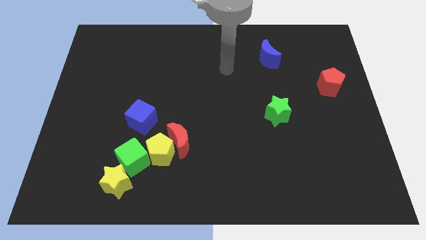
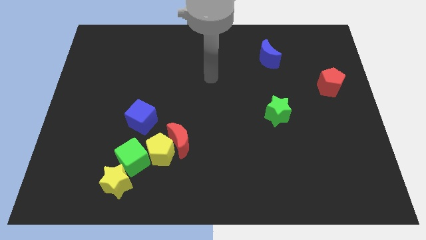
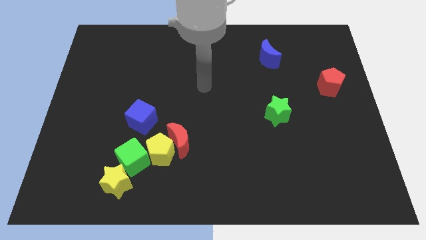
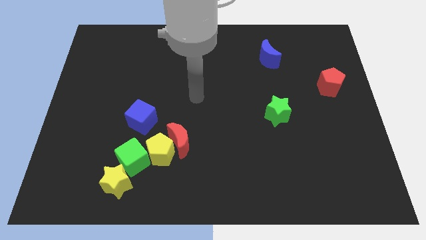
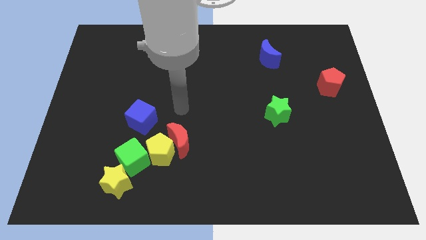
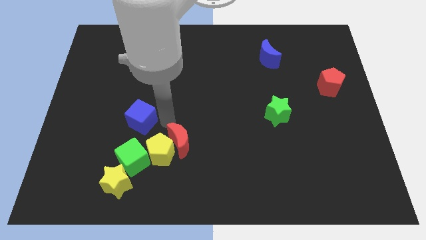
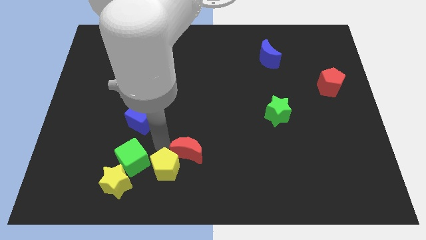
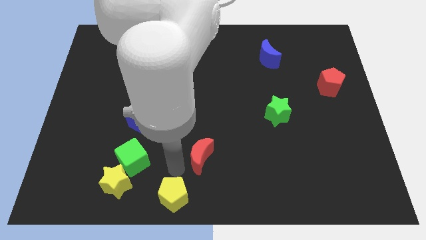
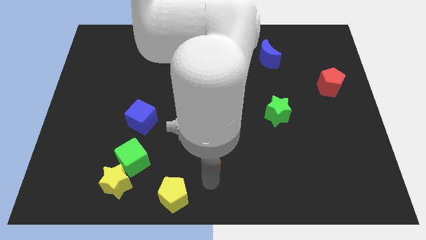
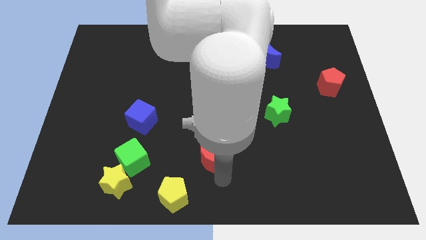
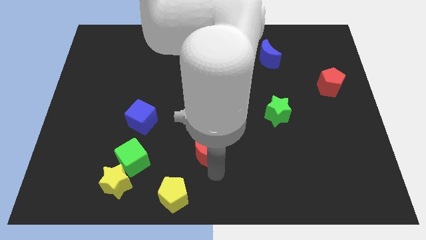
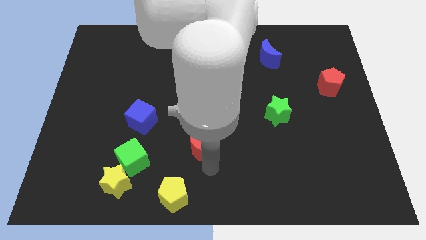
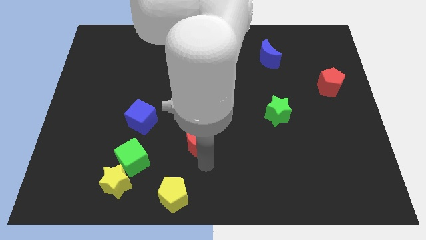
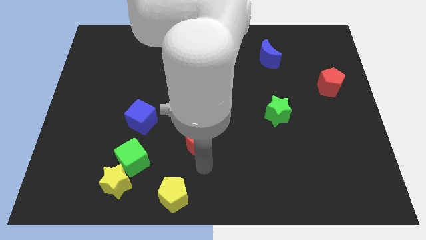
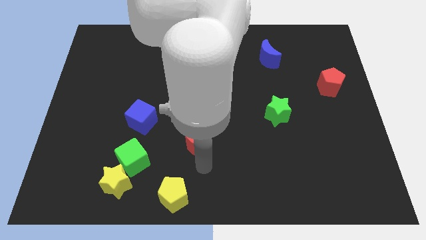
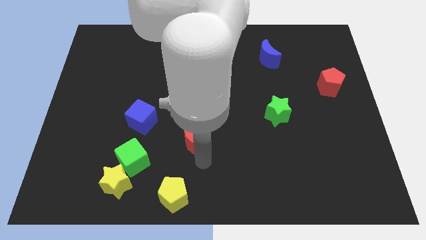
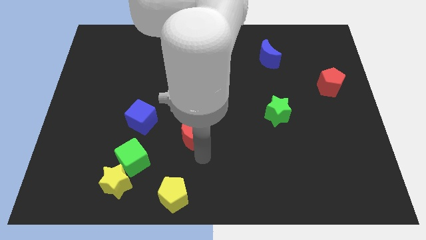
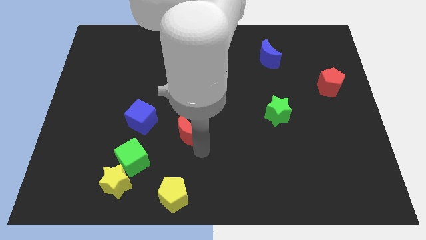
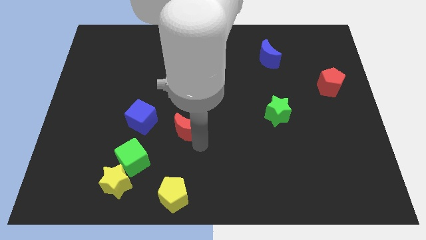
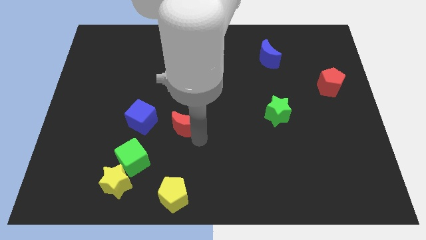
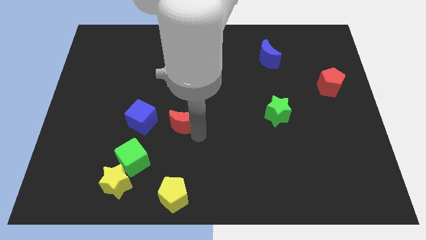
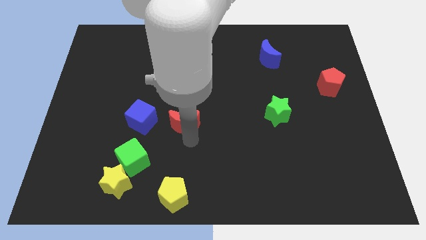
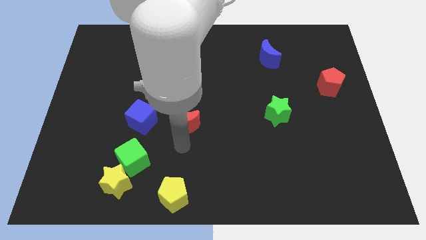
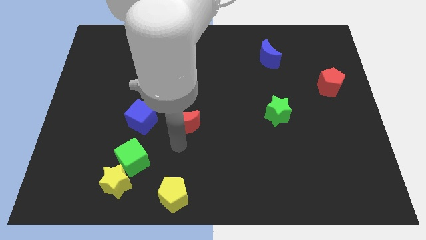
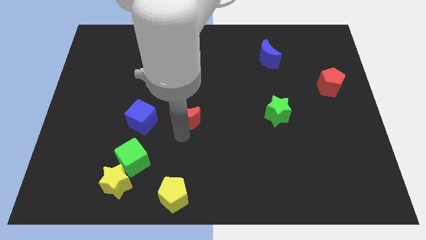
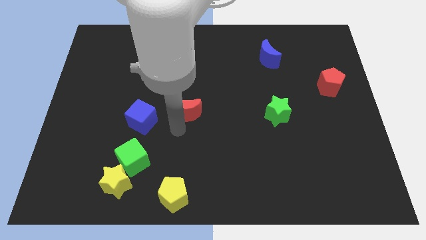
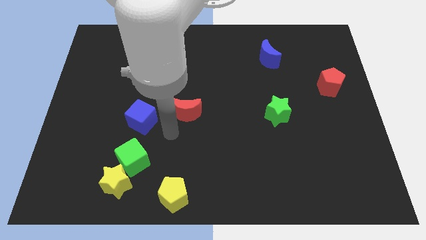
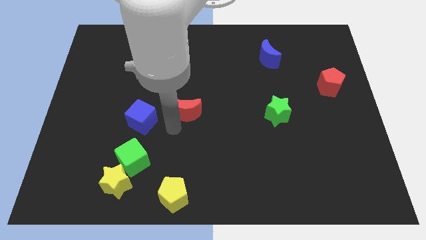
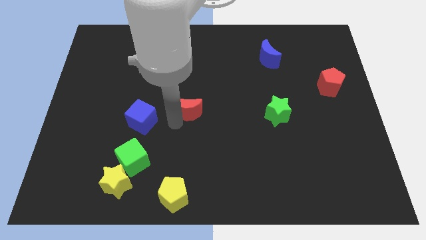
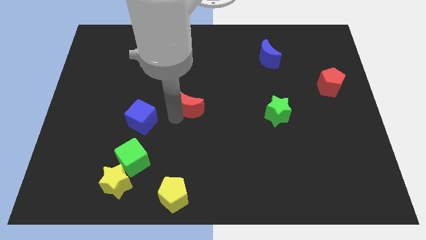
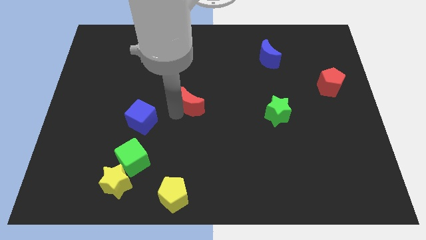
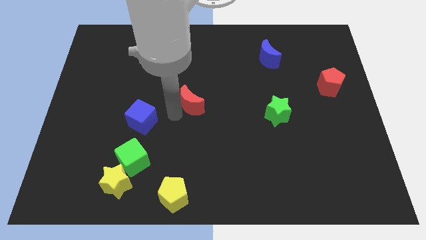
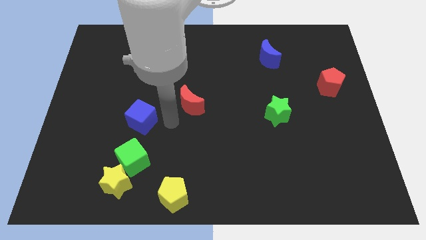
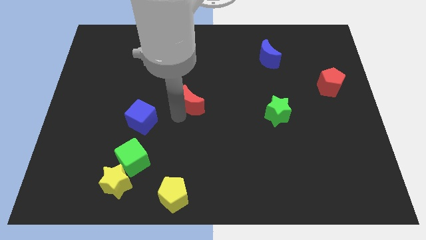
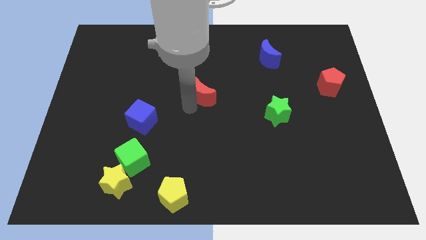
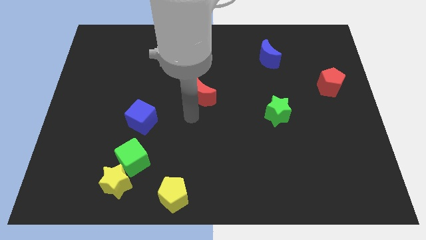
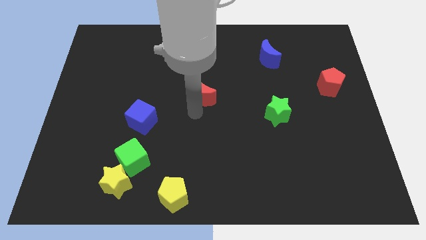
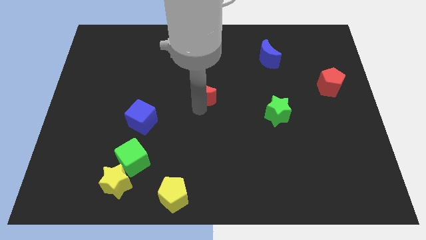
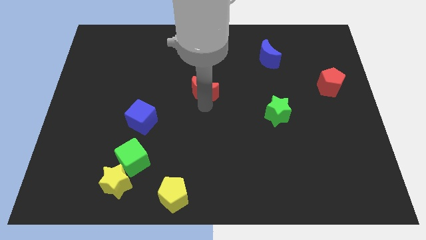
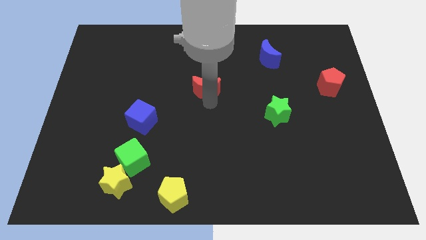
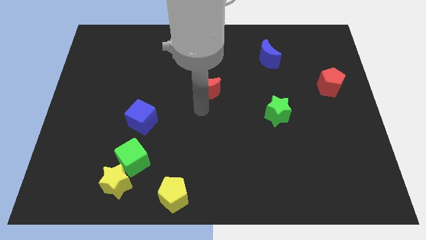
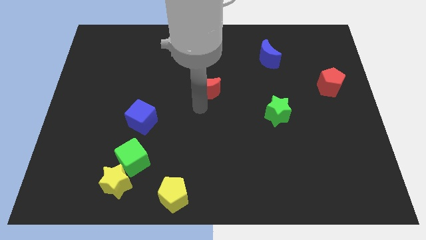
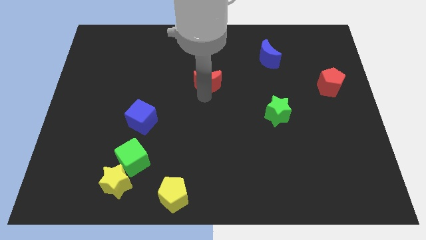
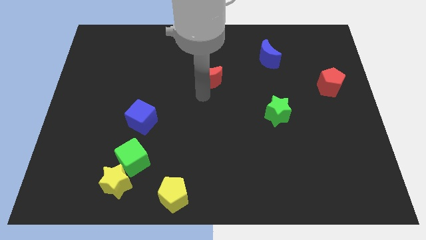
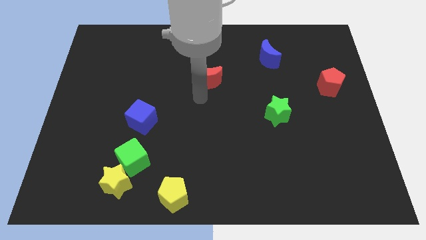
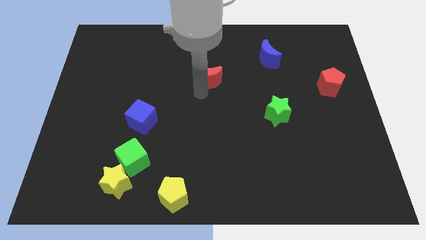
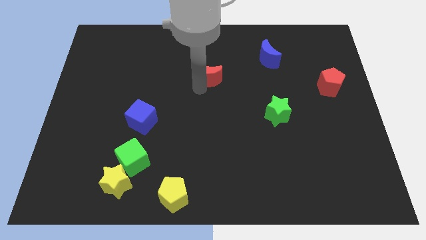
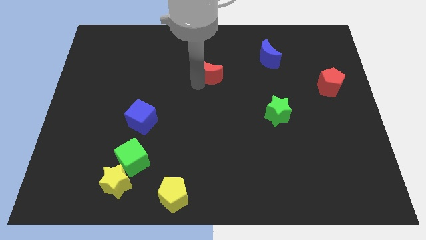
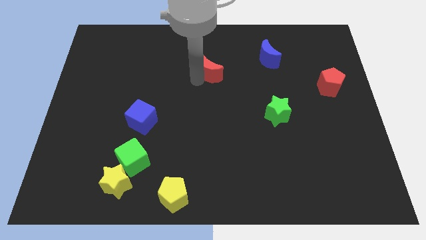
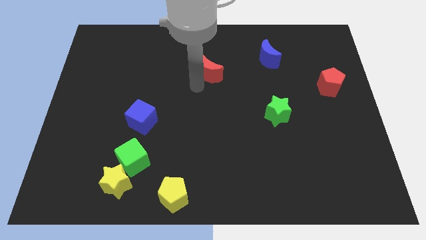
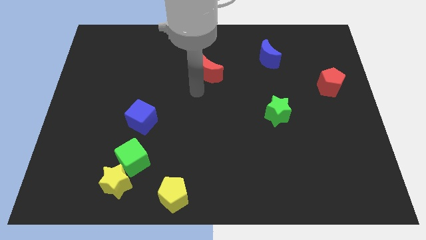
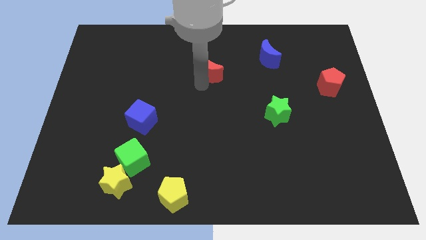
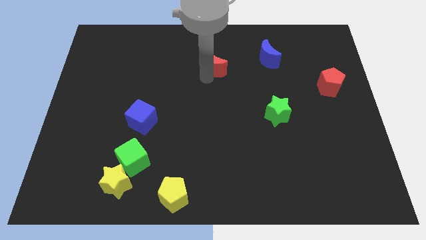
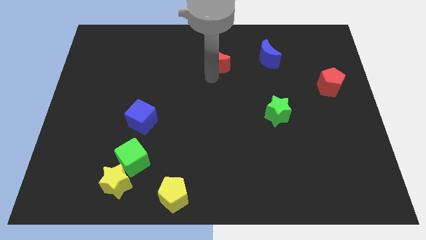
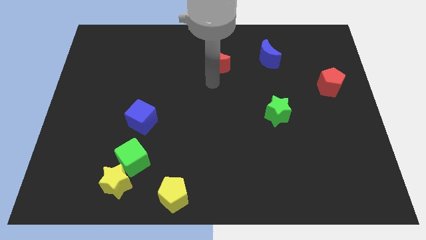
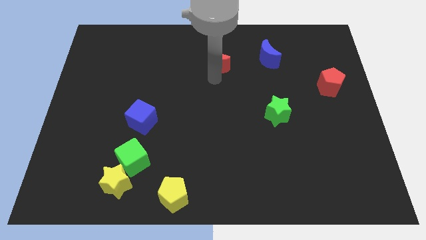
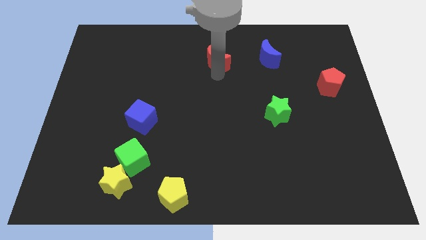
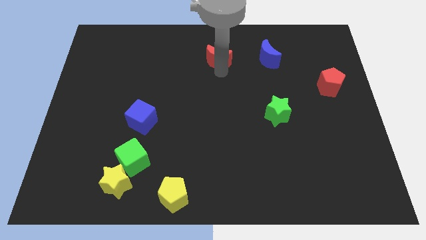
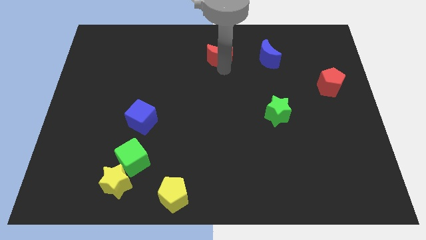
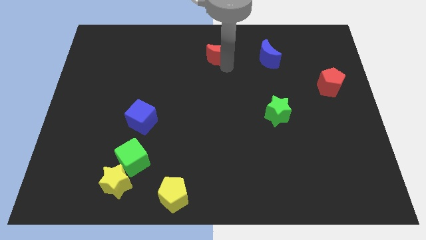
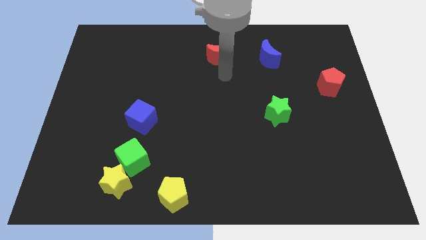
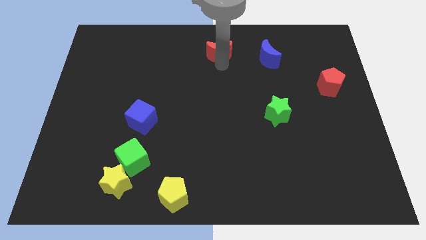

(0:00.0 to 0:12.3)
slide the red moon to the towards your base

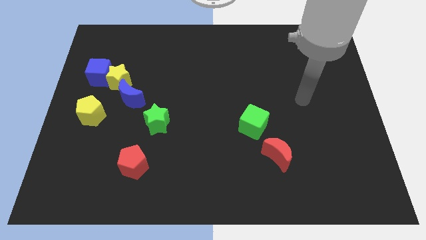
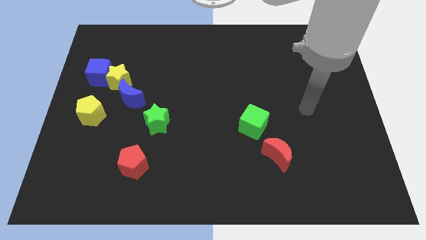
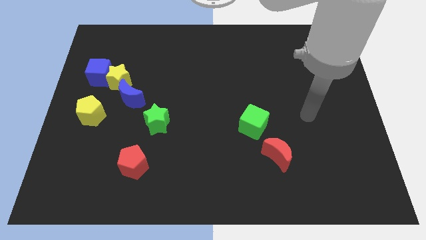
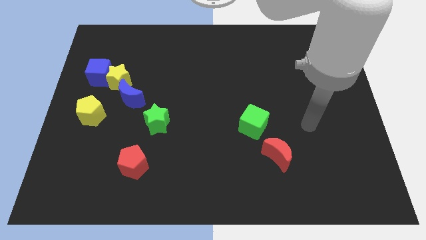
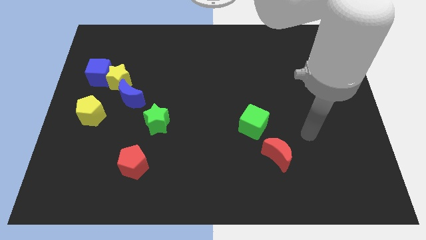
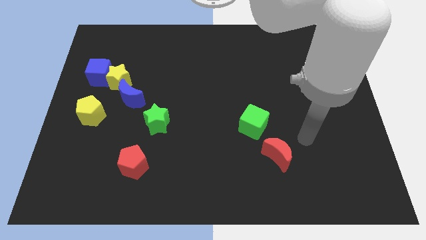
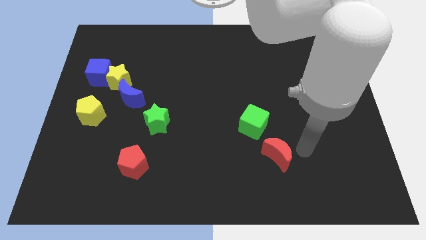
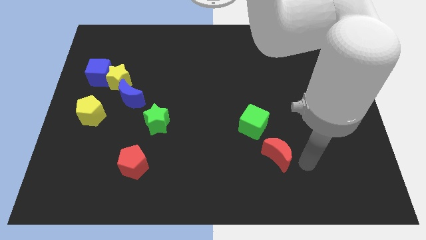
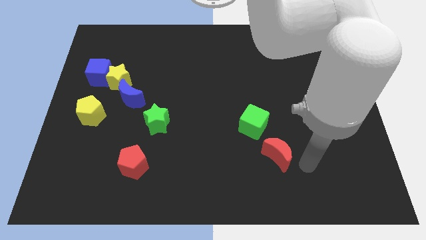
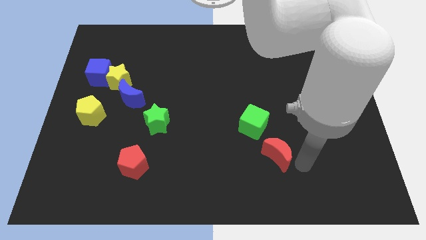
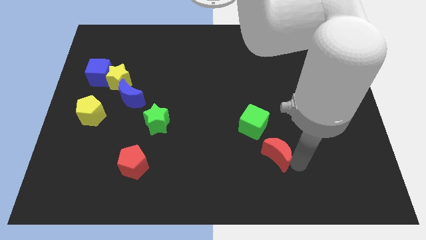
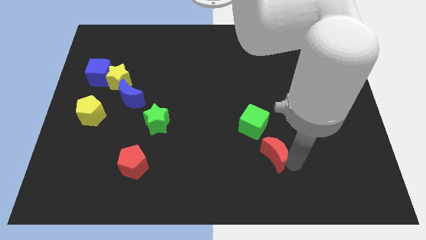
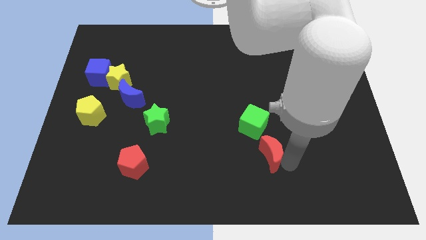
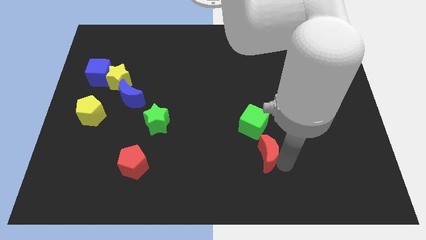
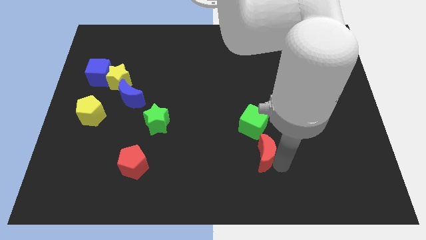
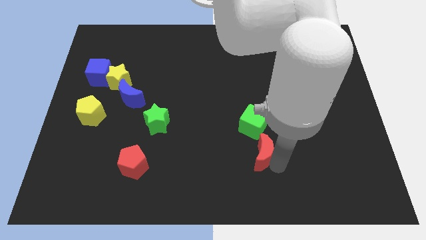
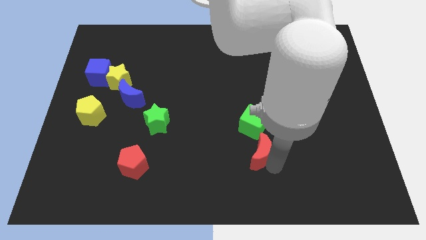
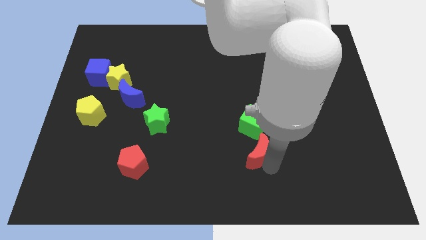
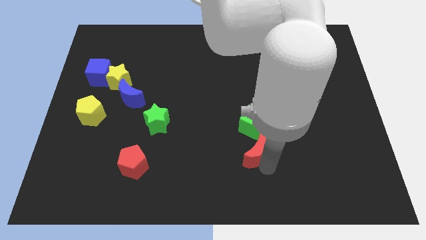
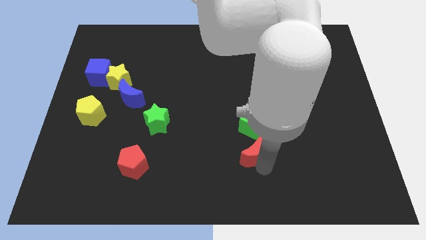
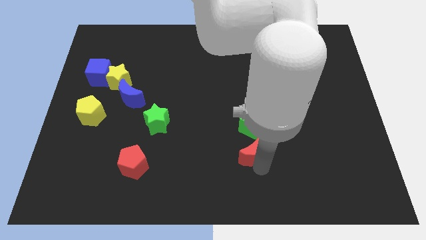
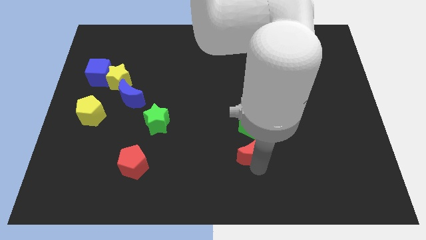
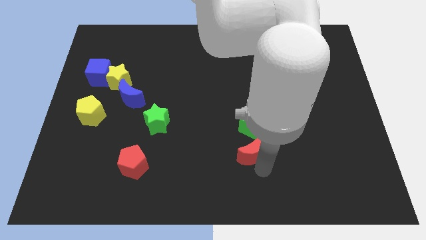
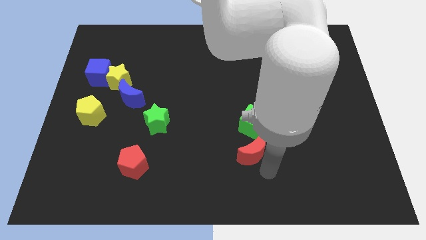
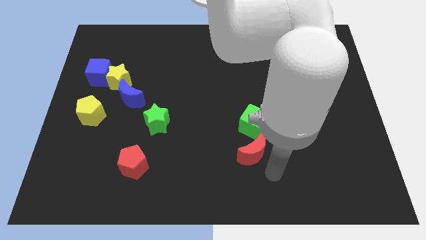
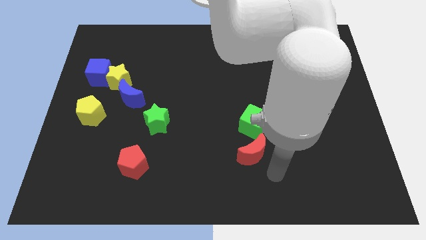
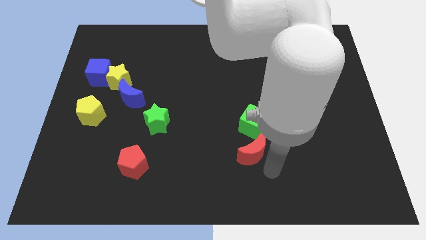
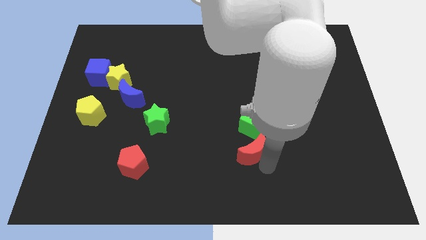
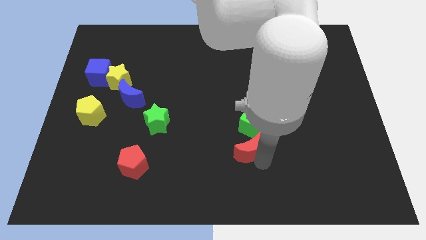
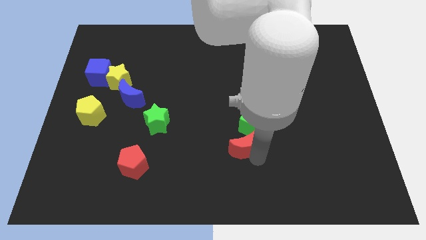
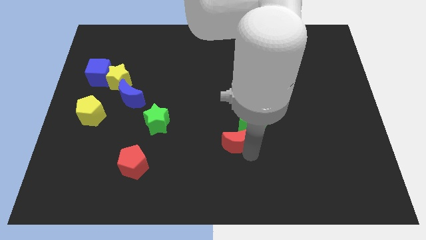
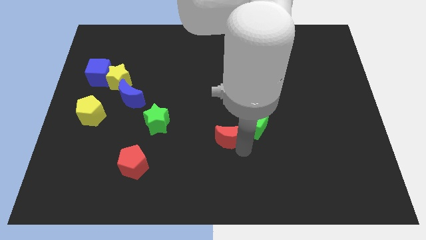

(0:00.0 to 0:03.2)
move the red moon to the center
